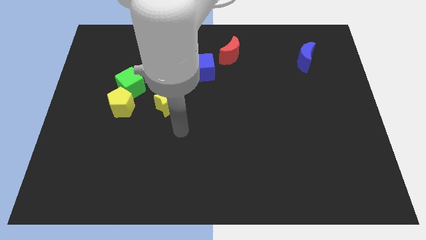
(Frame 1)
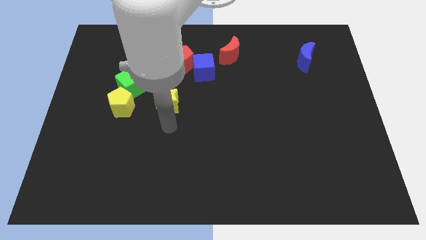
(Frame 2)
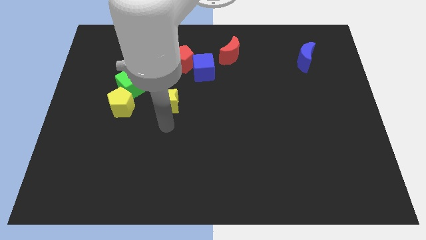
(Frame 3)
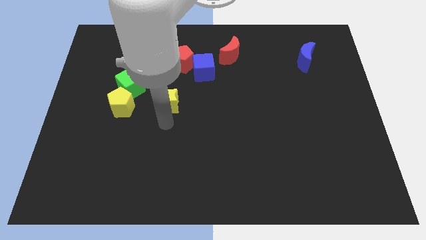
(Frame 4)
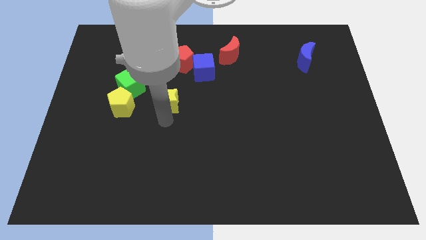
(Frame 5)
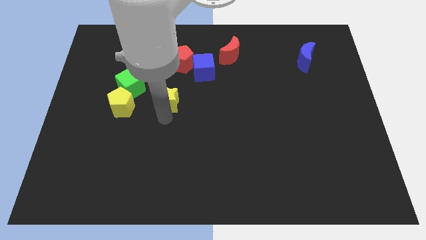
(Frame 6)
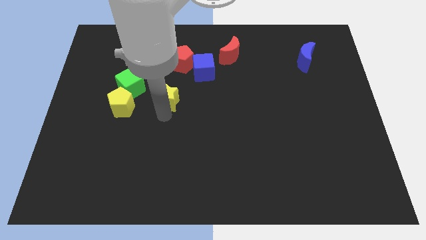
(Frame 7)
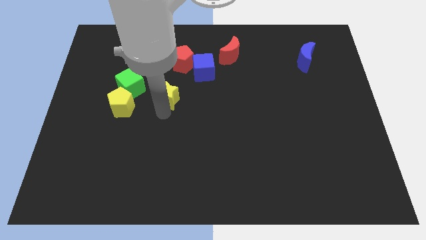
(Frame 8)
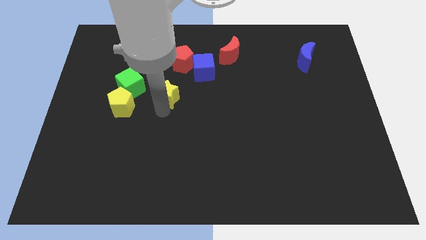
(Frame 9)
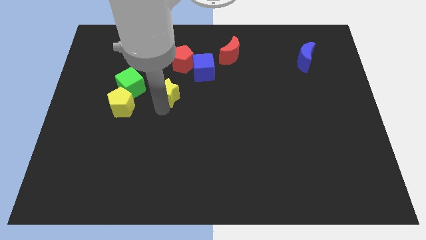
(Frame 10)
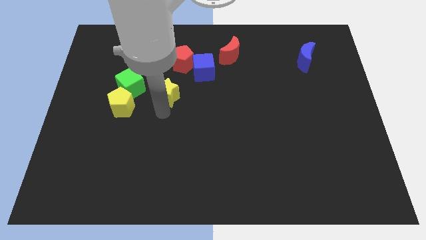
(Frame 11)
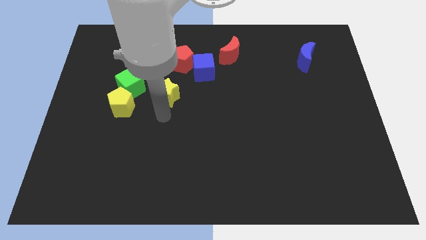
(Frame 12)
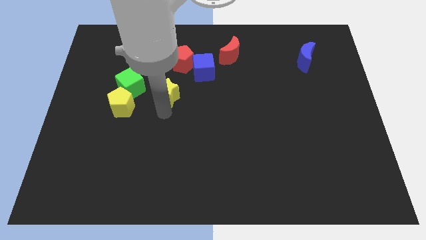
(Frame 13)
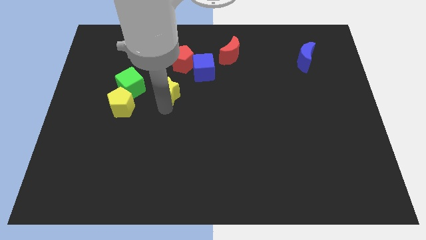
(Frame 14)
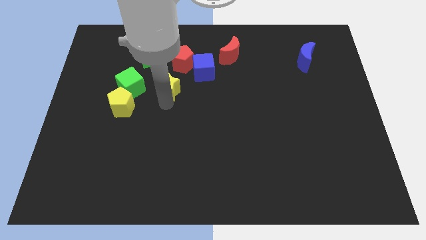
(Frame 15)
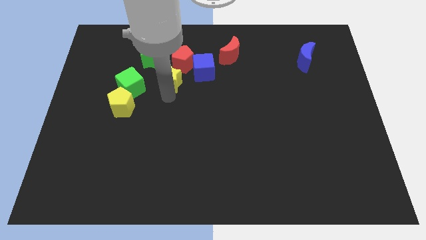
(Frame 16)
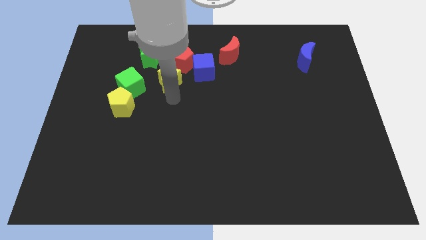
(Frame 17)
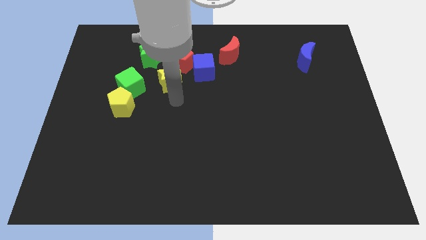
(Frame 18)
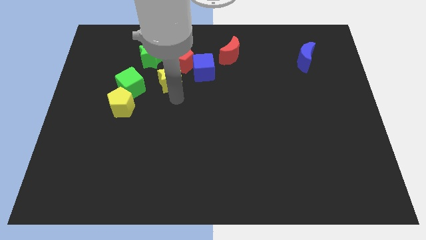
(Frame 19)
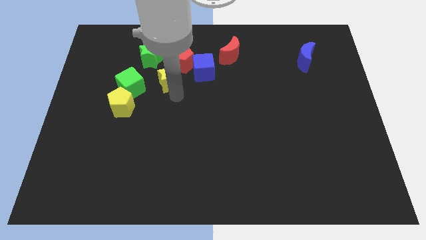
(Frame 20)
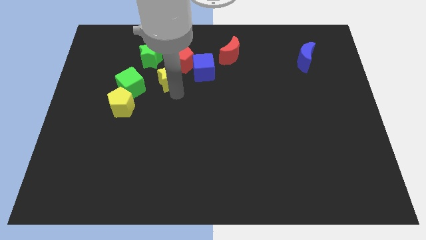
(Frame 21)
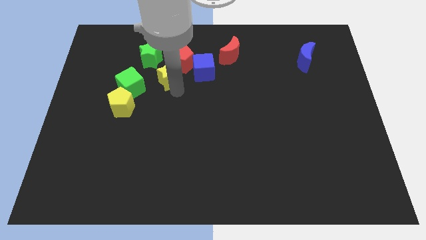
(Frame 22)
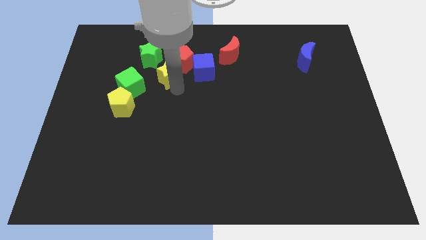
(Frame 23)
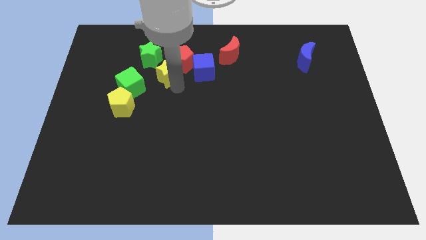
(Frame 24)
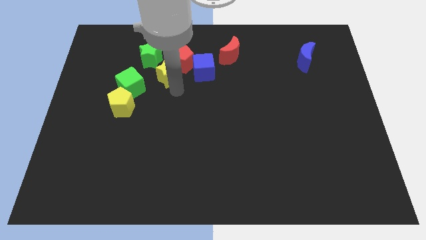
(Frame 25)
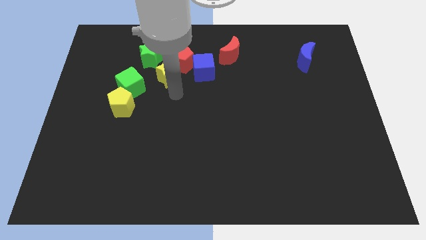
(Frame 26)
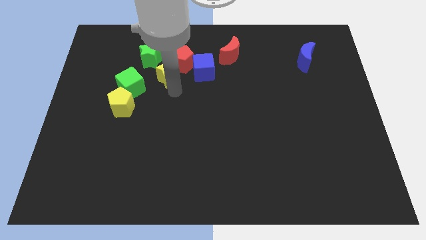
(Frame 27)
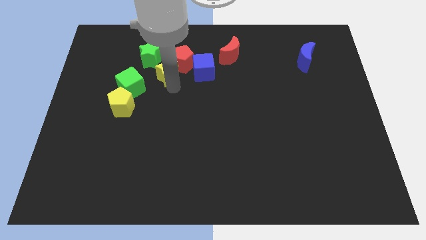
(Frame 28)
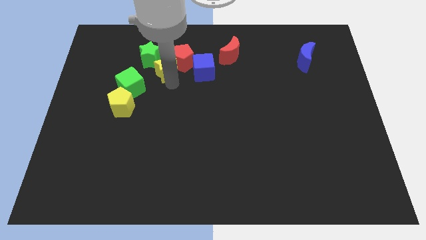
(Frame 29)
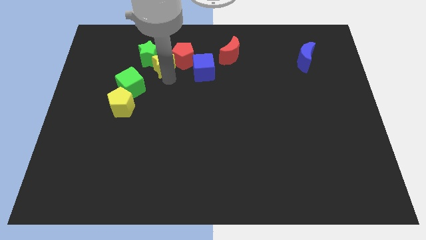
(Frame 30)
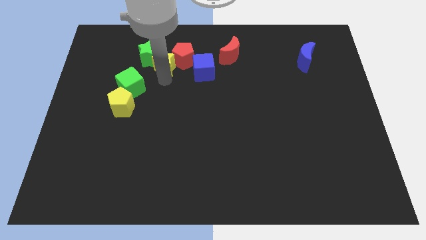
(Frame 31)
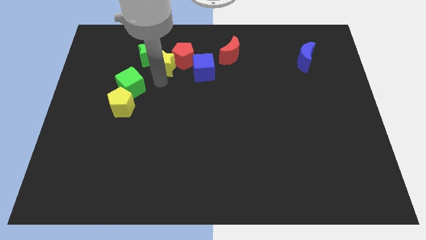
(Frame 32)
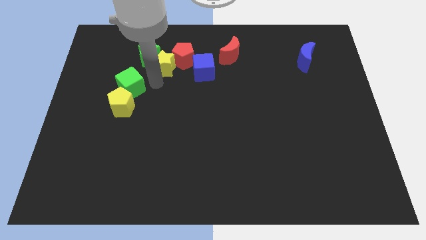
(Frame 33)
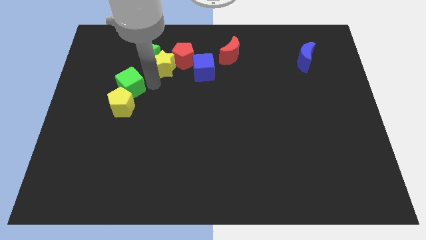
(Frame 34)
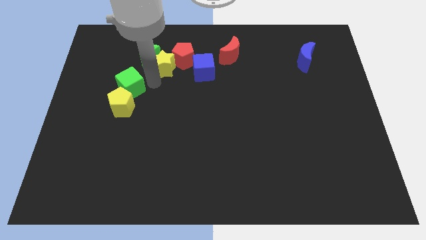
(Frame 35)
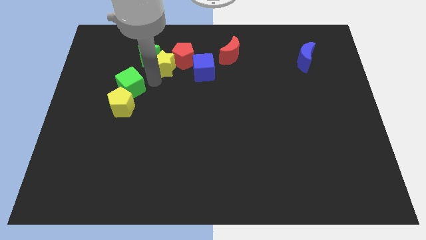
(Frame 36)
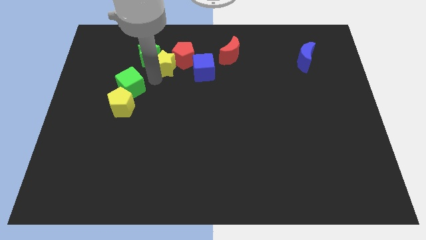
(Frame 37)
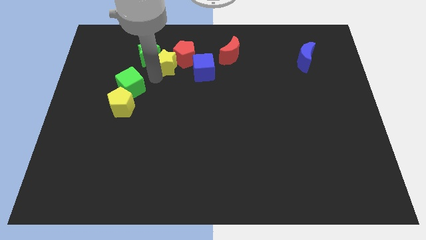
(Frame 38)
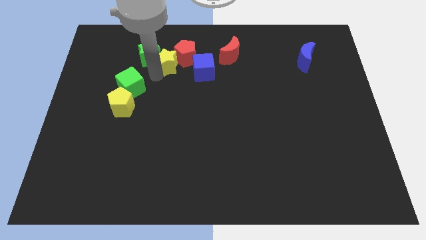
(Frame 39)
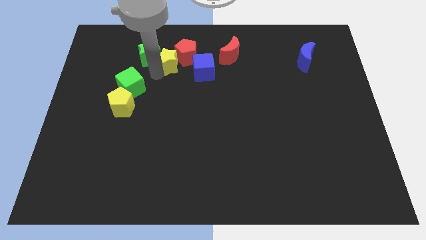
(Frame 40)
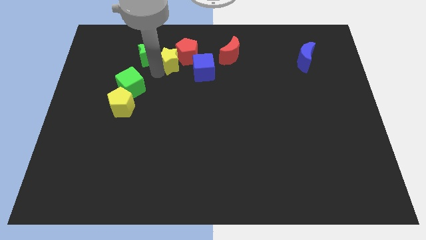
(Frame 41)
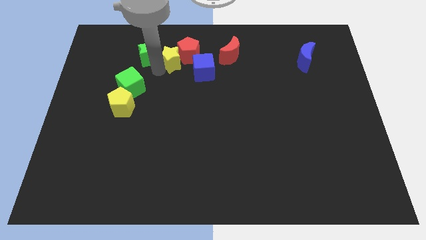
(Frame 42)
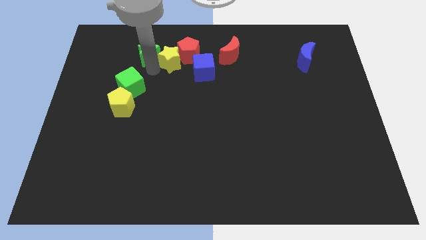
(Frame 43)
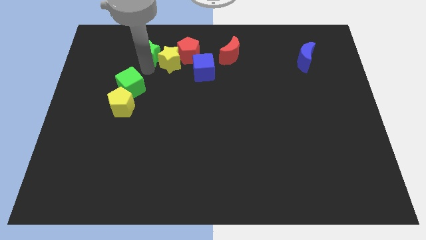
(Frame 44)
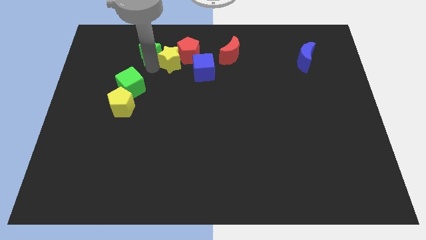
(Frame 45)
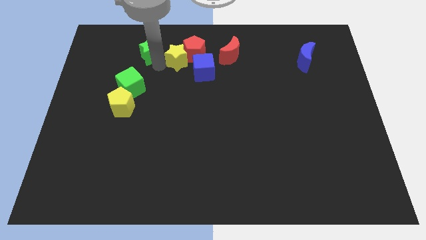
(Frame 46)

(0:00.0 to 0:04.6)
slide the yellow star left of the red moon

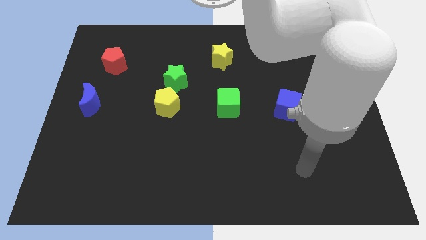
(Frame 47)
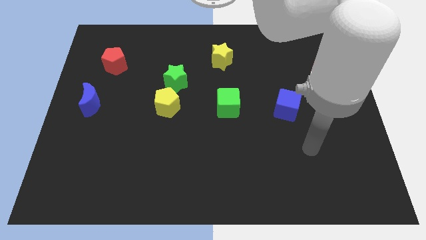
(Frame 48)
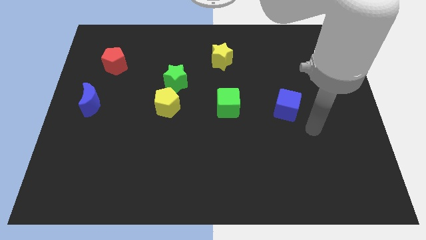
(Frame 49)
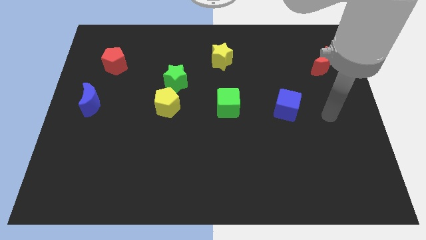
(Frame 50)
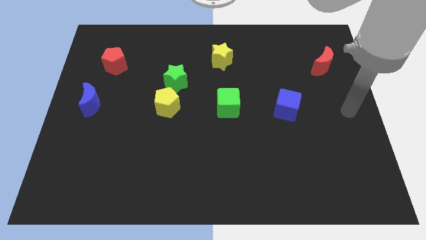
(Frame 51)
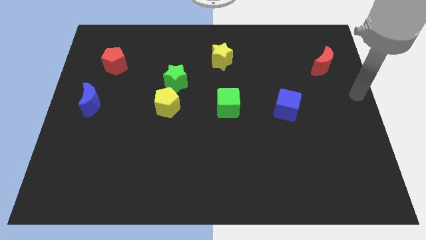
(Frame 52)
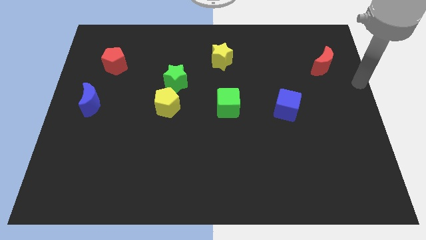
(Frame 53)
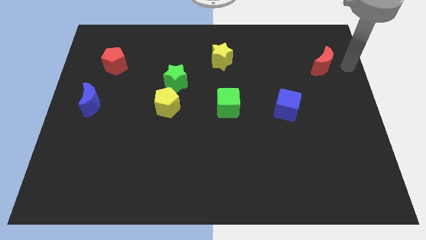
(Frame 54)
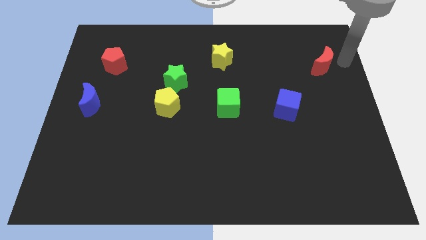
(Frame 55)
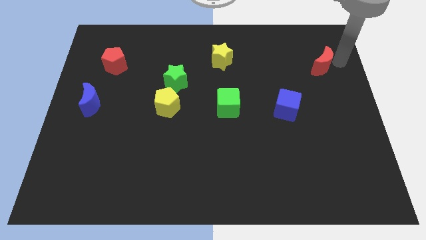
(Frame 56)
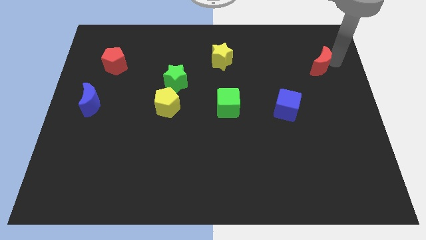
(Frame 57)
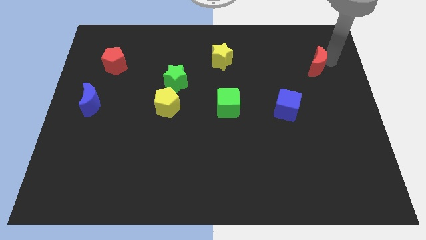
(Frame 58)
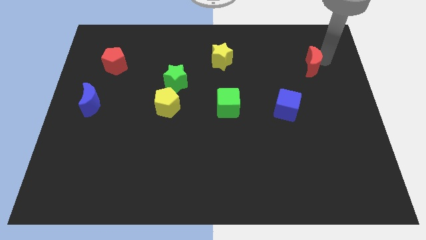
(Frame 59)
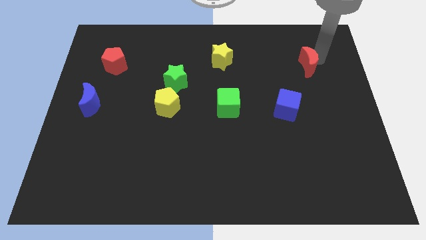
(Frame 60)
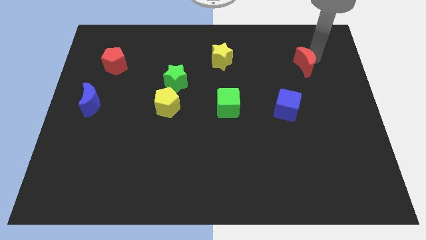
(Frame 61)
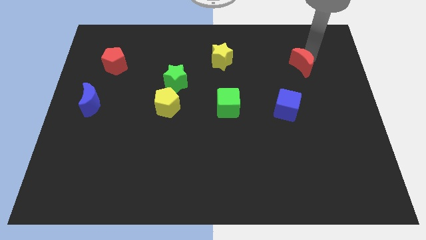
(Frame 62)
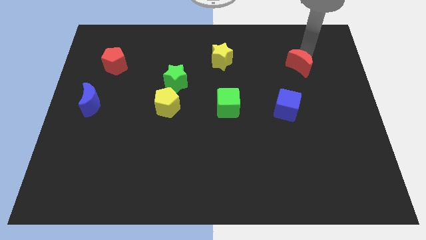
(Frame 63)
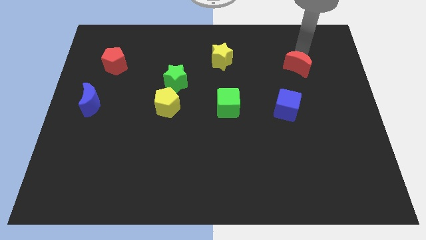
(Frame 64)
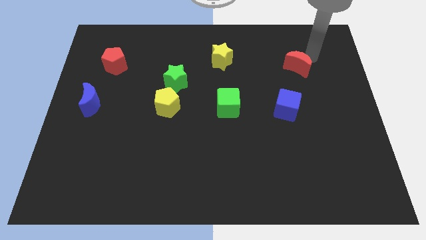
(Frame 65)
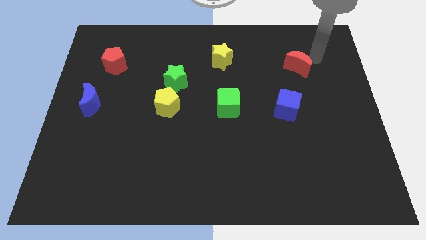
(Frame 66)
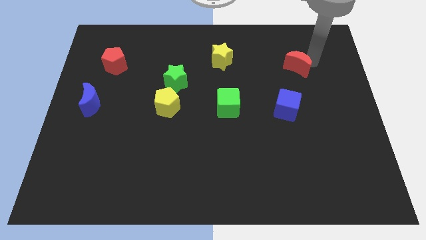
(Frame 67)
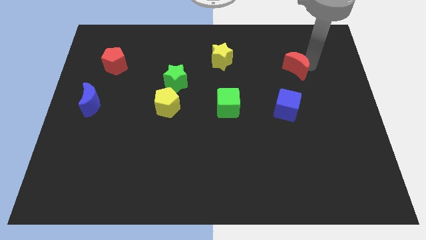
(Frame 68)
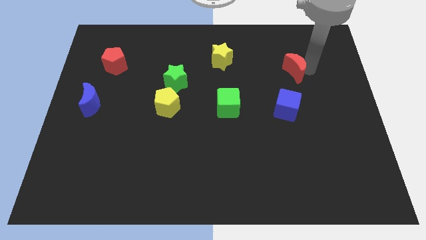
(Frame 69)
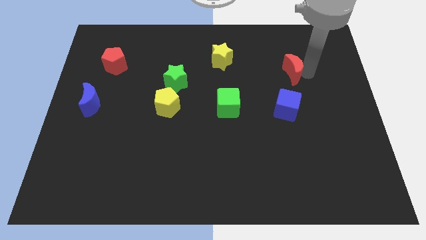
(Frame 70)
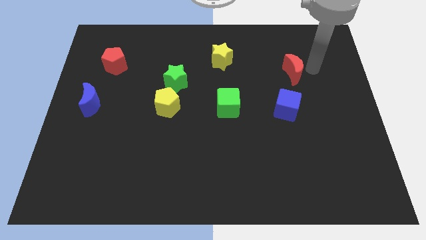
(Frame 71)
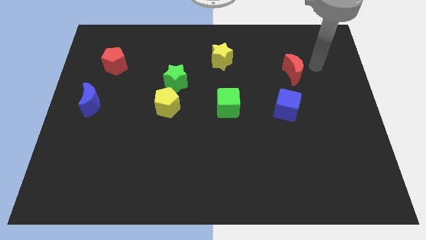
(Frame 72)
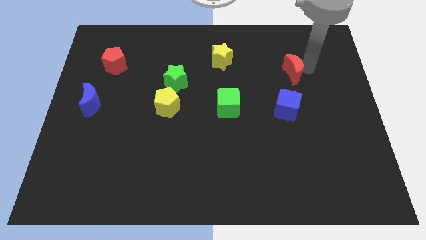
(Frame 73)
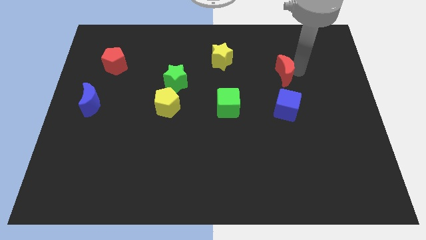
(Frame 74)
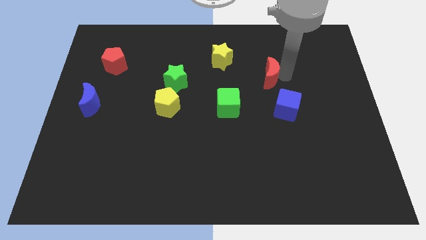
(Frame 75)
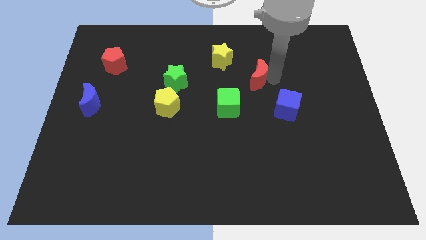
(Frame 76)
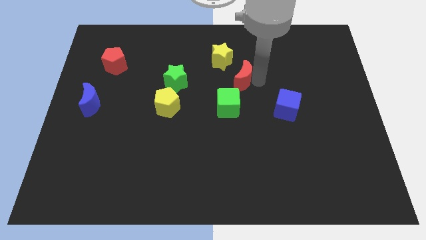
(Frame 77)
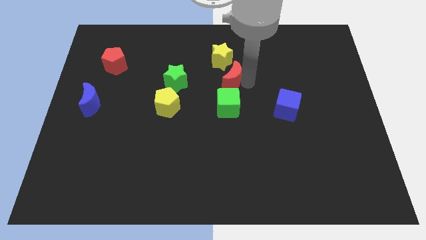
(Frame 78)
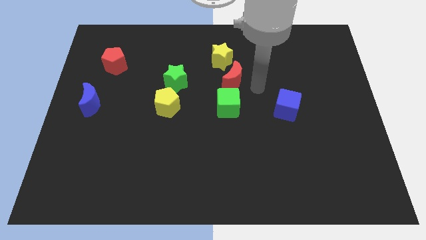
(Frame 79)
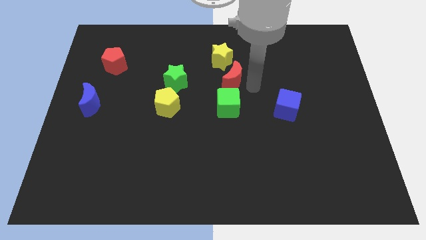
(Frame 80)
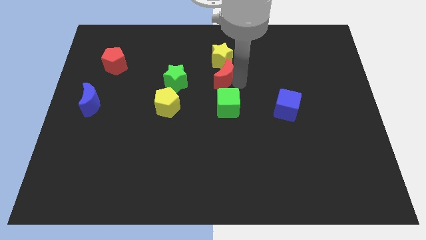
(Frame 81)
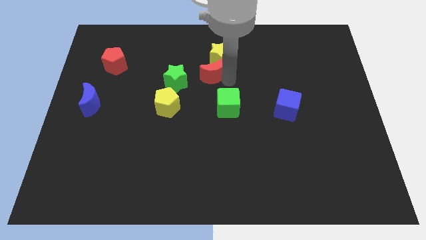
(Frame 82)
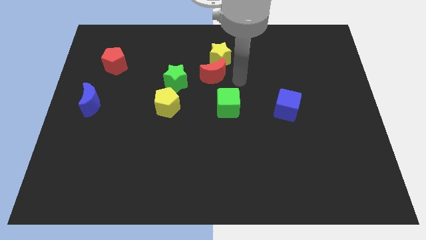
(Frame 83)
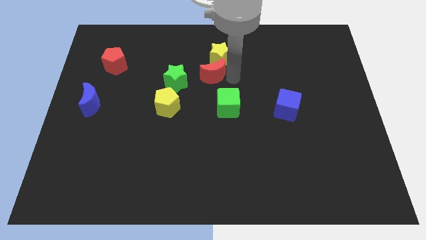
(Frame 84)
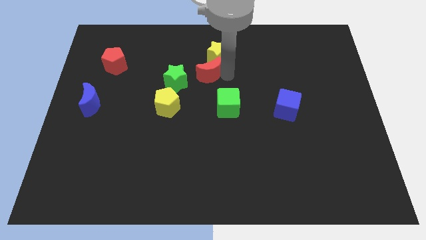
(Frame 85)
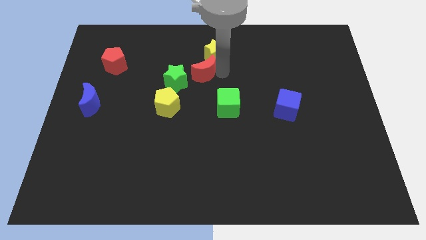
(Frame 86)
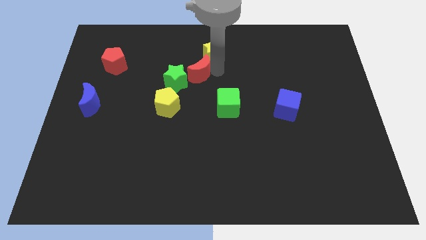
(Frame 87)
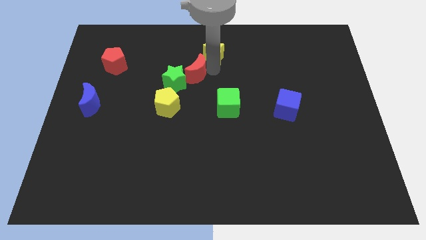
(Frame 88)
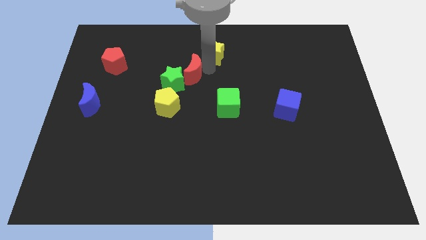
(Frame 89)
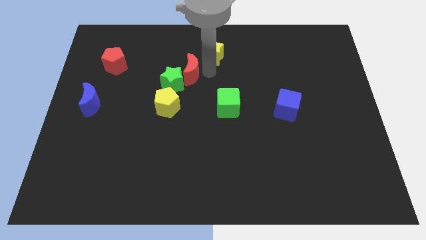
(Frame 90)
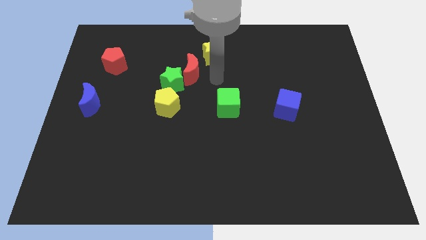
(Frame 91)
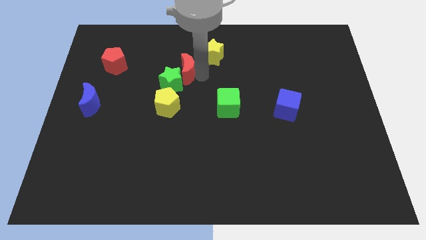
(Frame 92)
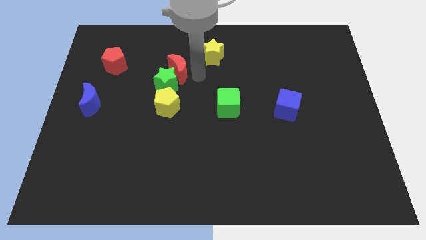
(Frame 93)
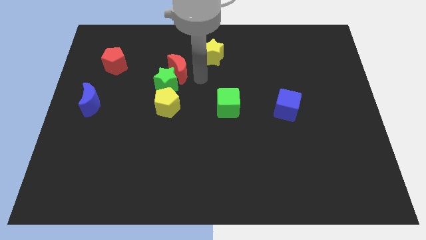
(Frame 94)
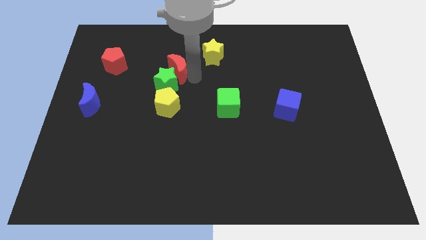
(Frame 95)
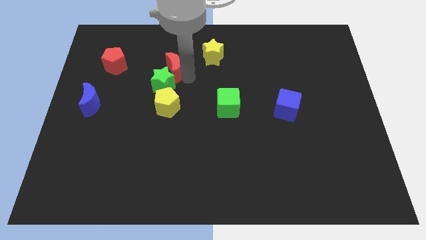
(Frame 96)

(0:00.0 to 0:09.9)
move the red moon right of the red pentagon
